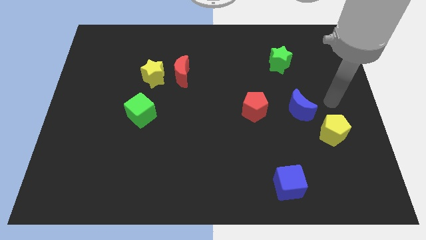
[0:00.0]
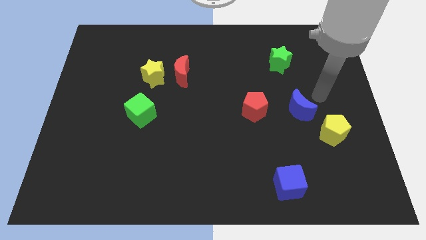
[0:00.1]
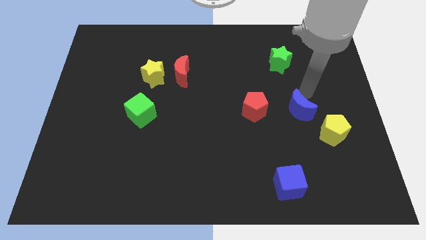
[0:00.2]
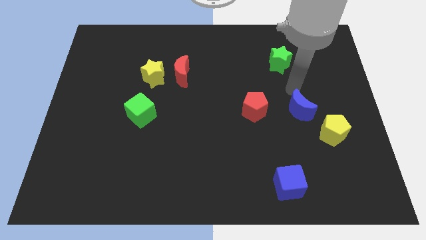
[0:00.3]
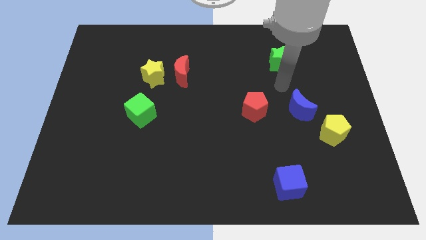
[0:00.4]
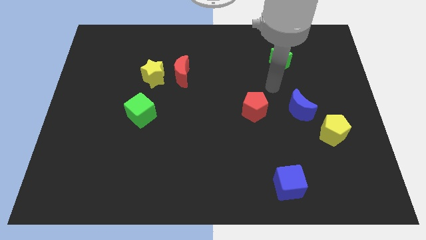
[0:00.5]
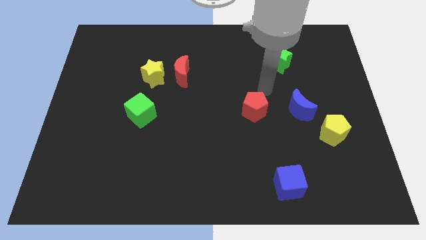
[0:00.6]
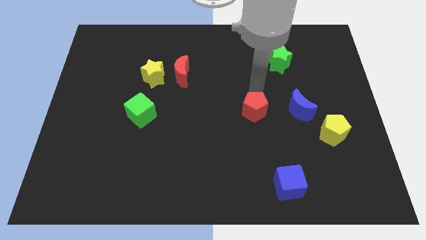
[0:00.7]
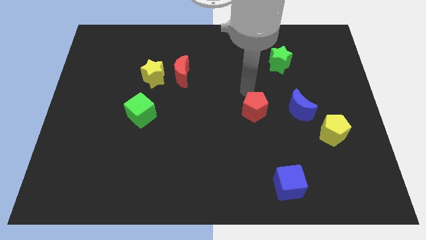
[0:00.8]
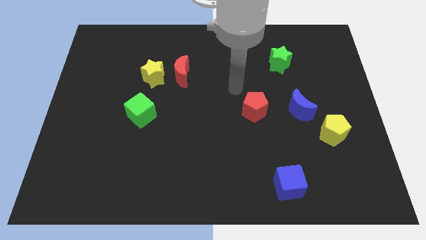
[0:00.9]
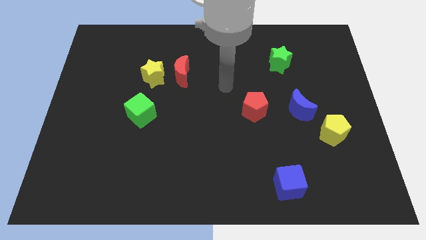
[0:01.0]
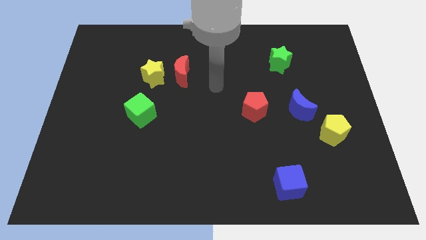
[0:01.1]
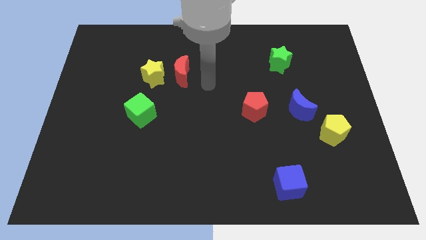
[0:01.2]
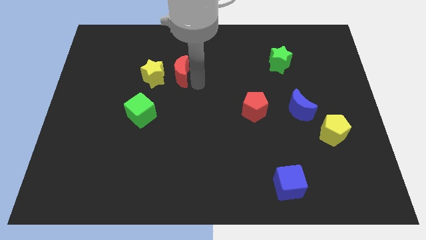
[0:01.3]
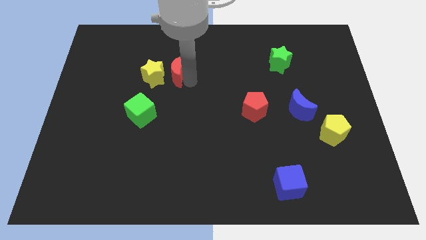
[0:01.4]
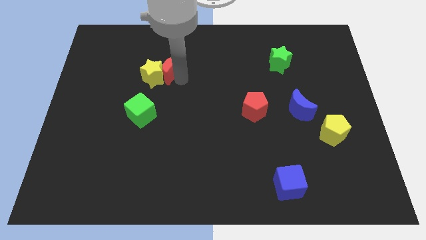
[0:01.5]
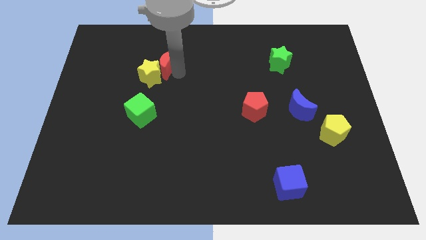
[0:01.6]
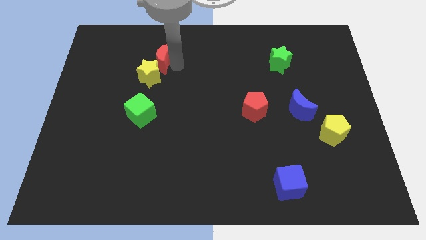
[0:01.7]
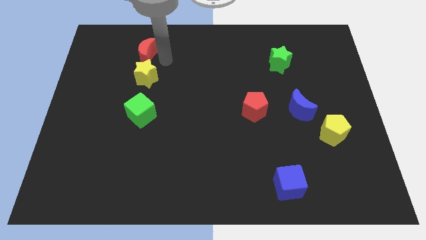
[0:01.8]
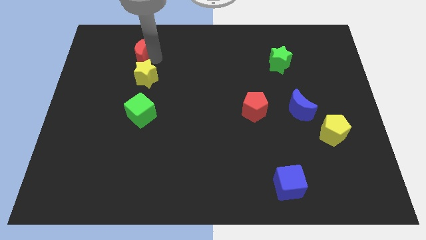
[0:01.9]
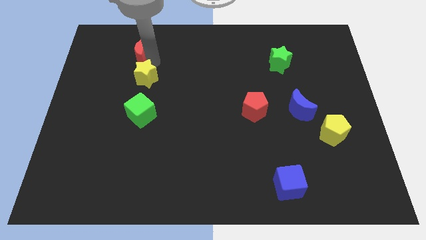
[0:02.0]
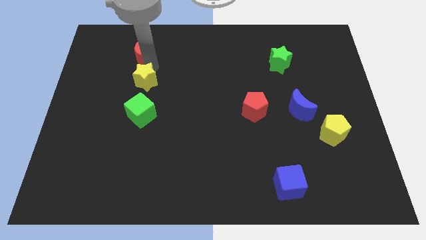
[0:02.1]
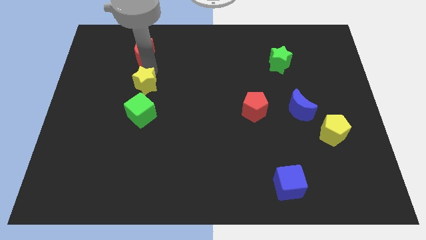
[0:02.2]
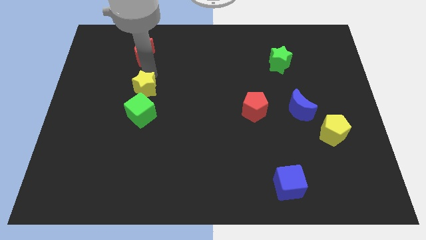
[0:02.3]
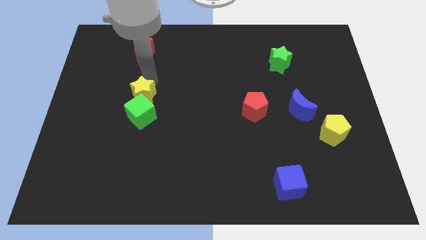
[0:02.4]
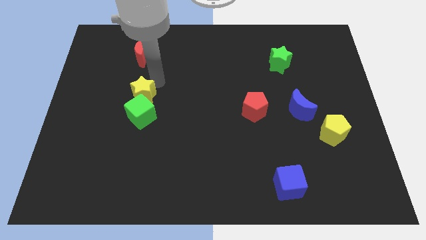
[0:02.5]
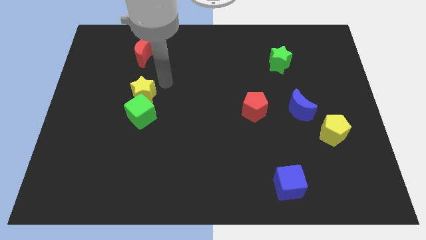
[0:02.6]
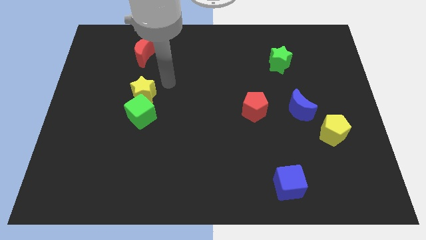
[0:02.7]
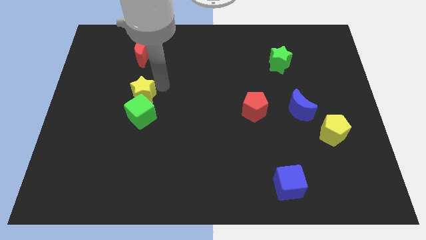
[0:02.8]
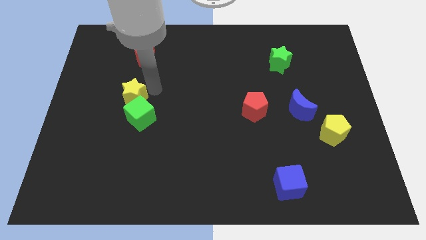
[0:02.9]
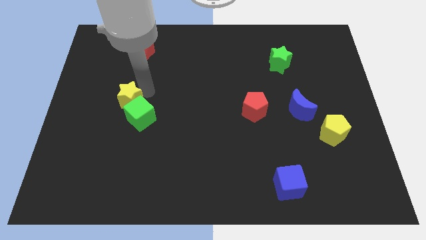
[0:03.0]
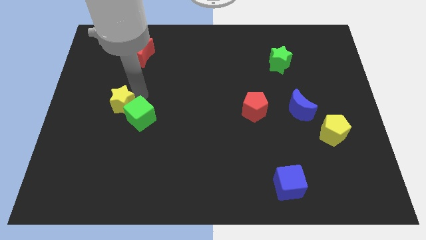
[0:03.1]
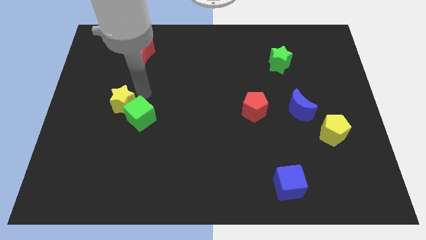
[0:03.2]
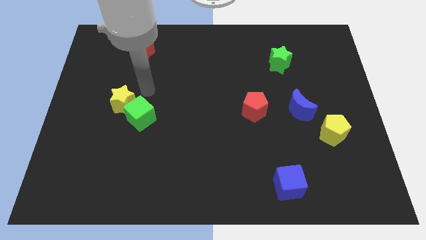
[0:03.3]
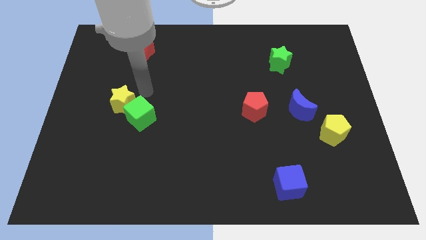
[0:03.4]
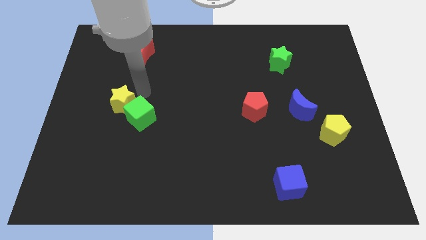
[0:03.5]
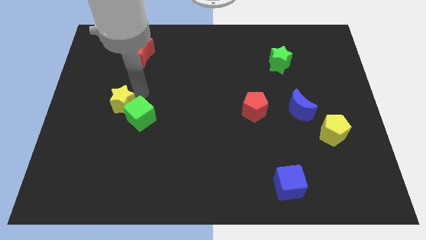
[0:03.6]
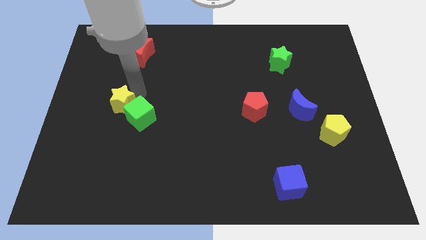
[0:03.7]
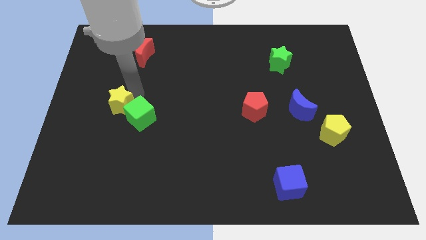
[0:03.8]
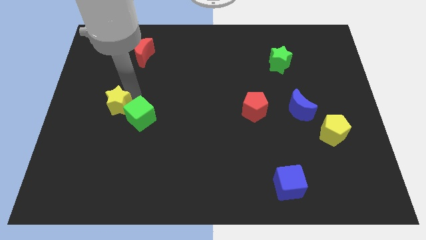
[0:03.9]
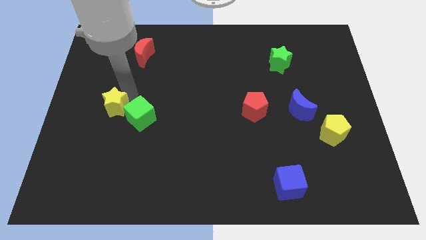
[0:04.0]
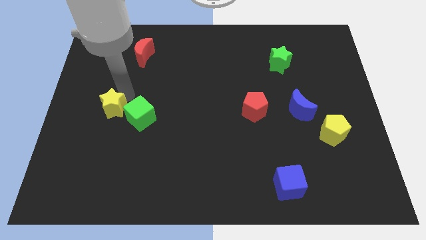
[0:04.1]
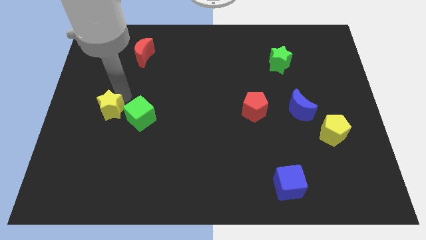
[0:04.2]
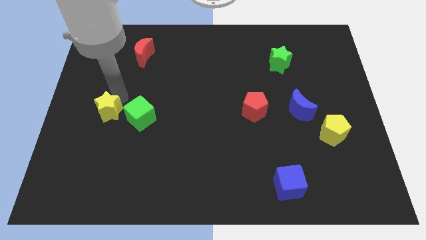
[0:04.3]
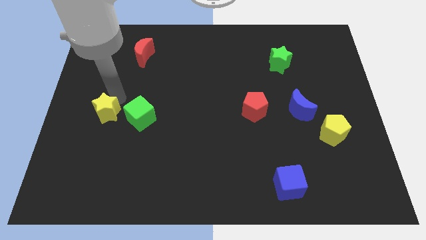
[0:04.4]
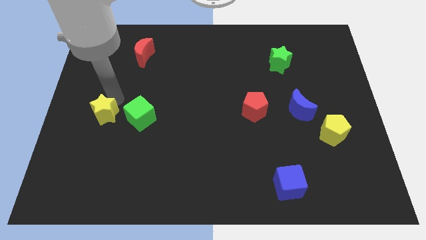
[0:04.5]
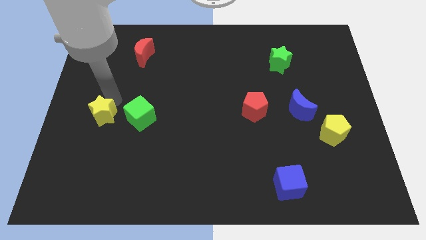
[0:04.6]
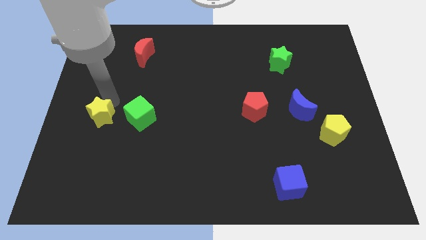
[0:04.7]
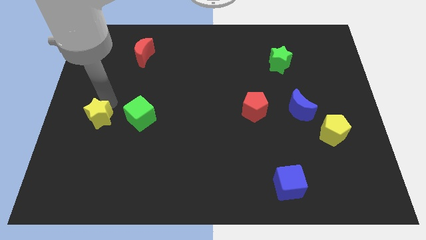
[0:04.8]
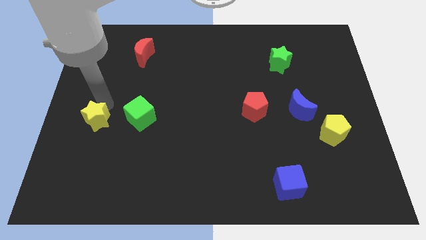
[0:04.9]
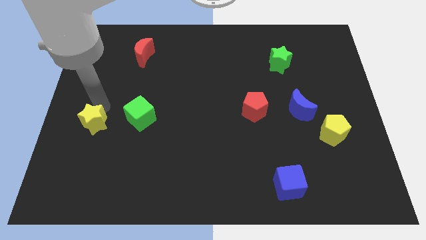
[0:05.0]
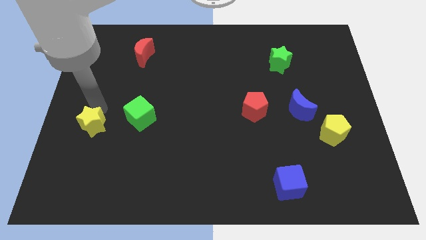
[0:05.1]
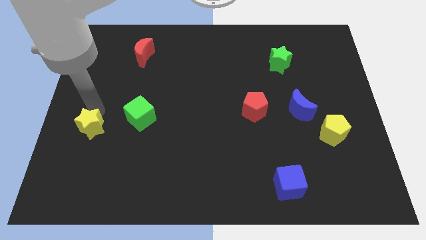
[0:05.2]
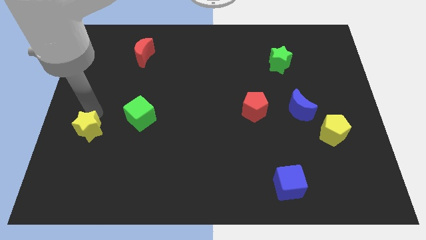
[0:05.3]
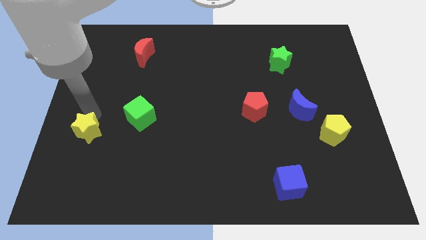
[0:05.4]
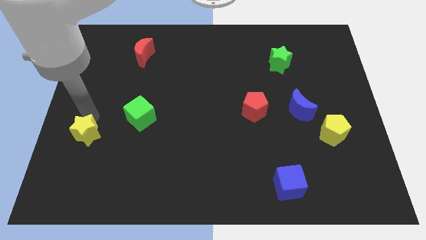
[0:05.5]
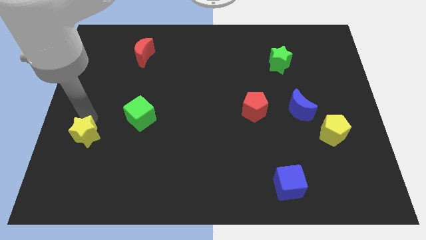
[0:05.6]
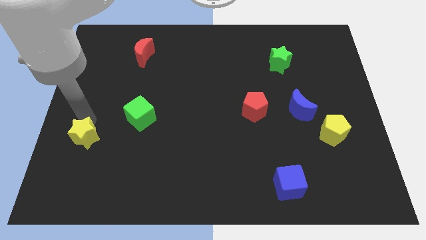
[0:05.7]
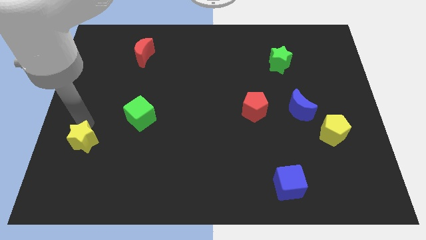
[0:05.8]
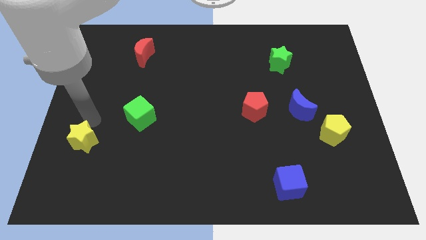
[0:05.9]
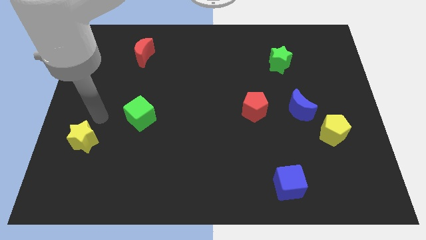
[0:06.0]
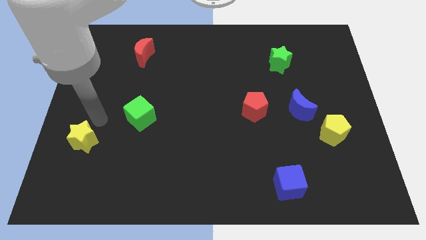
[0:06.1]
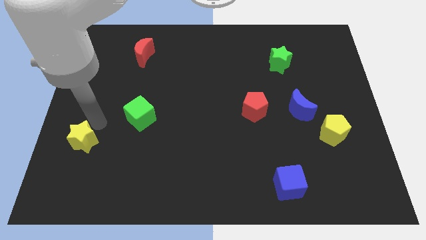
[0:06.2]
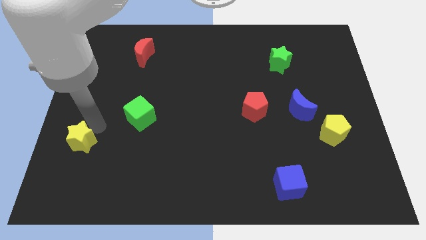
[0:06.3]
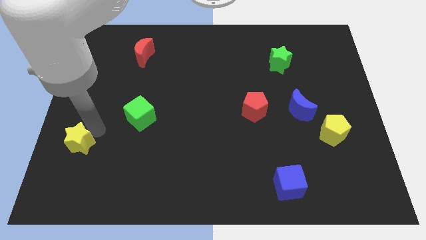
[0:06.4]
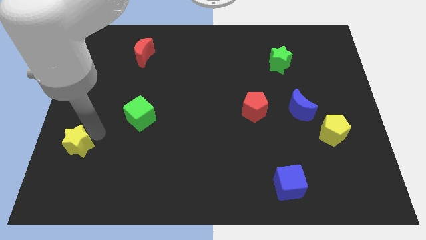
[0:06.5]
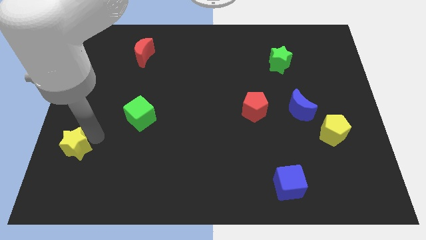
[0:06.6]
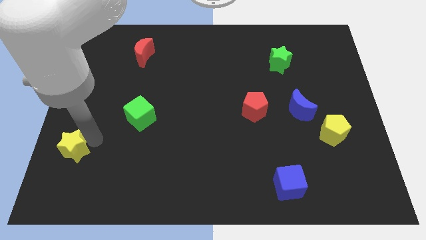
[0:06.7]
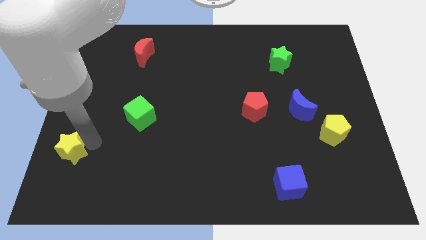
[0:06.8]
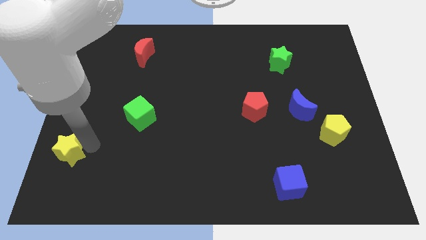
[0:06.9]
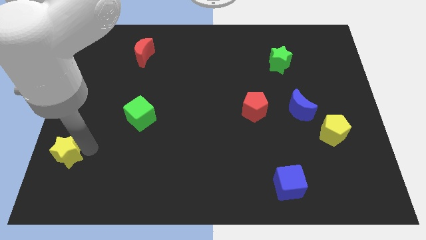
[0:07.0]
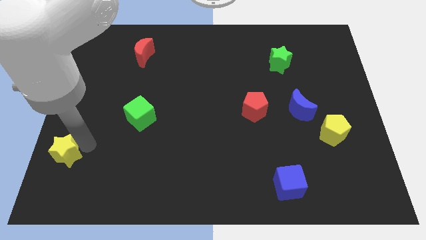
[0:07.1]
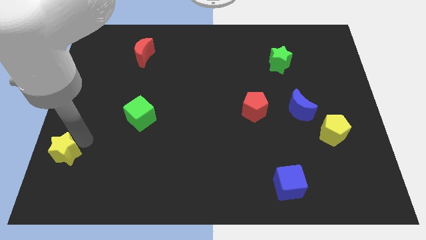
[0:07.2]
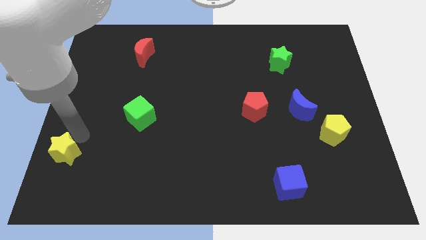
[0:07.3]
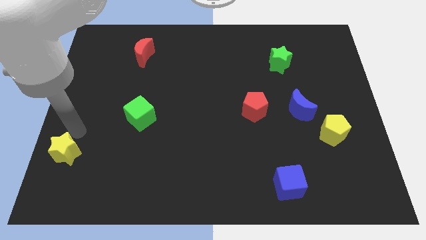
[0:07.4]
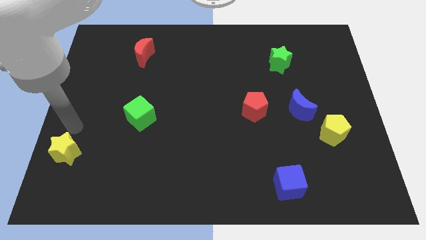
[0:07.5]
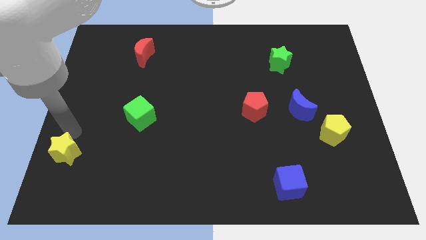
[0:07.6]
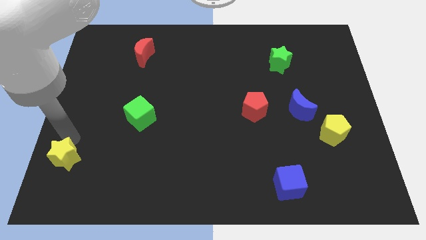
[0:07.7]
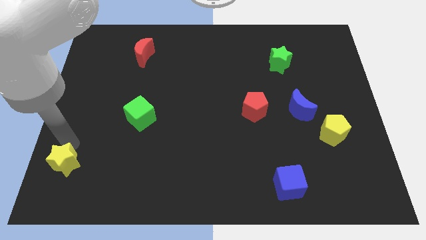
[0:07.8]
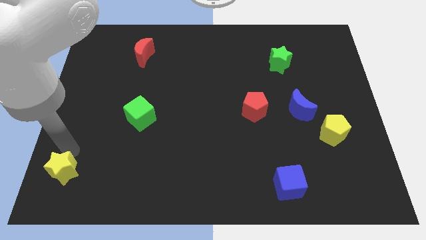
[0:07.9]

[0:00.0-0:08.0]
put the yellow star to the lower left corner
